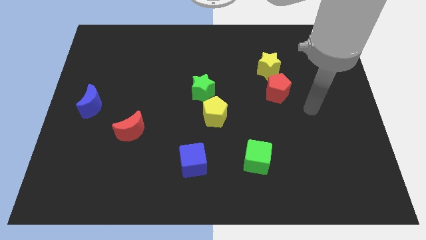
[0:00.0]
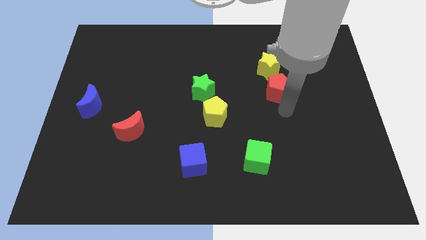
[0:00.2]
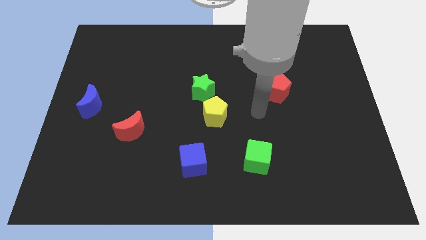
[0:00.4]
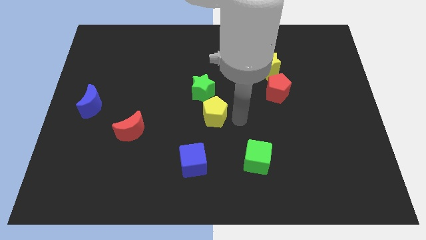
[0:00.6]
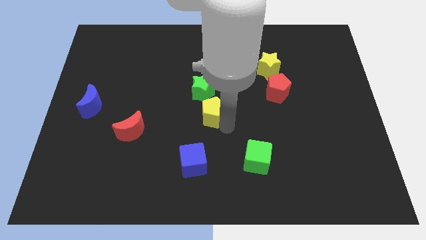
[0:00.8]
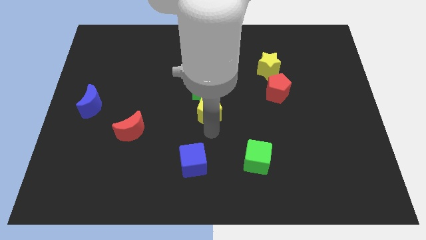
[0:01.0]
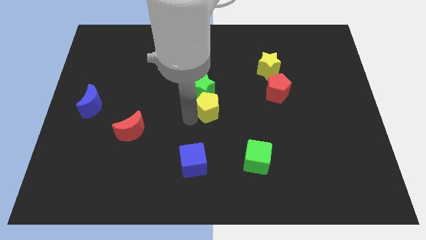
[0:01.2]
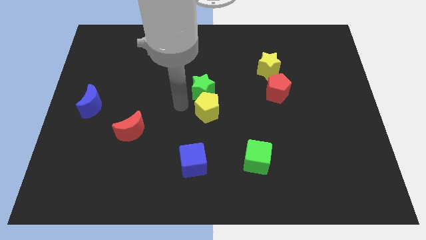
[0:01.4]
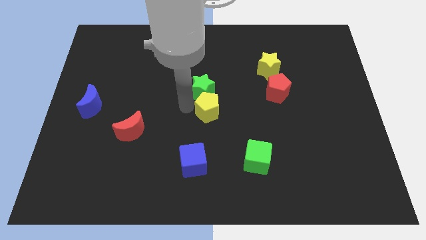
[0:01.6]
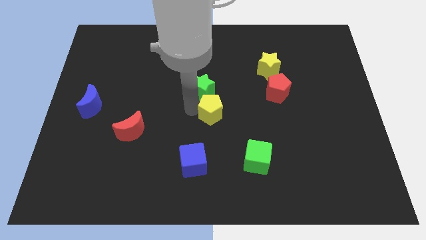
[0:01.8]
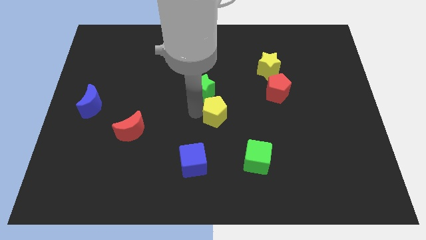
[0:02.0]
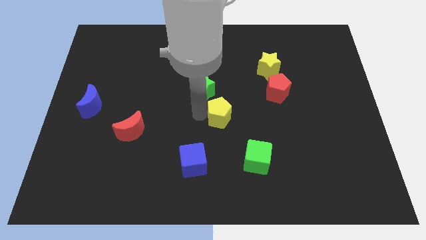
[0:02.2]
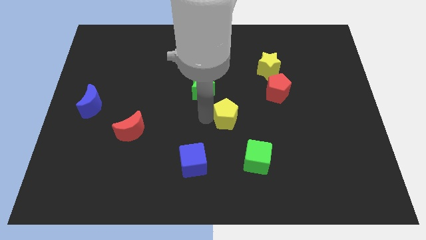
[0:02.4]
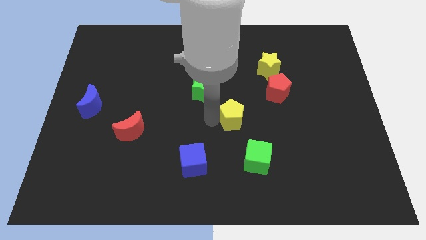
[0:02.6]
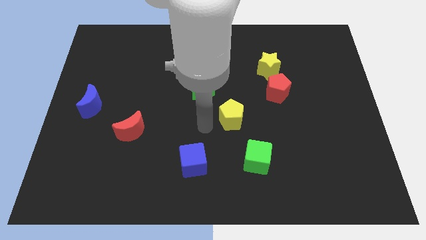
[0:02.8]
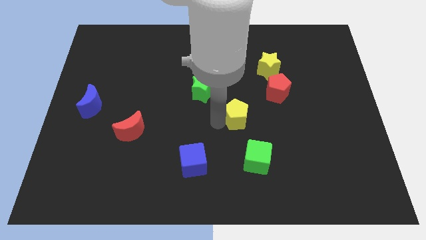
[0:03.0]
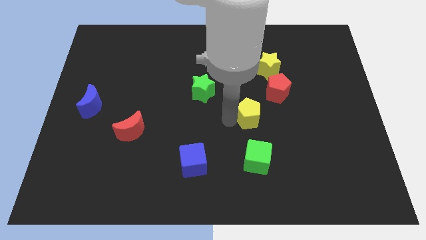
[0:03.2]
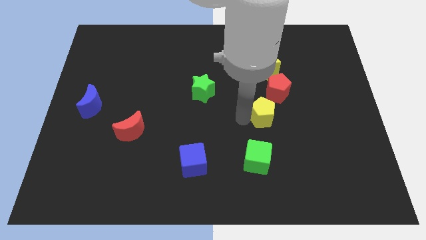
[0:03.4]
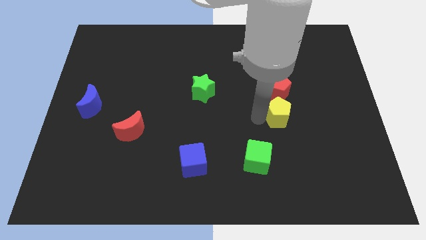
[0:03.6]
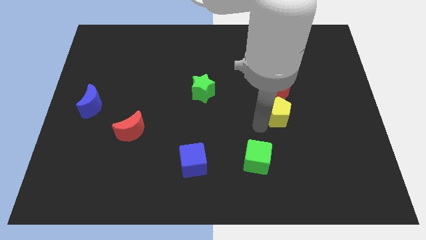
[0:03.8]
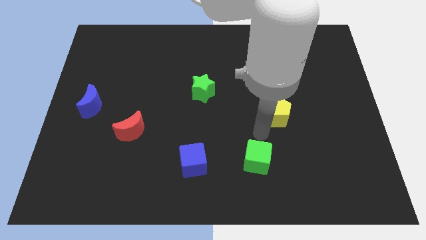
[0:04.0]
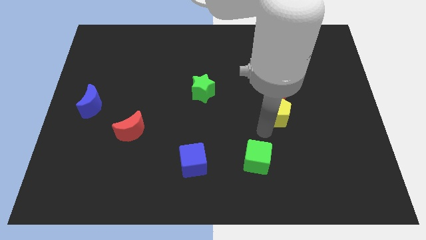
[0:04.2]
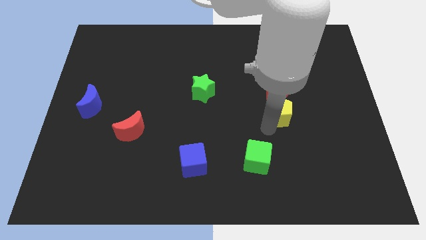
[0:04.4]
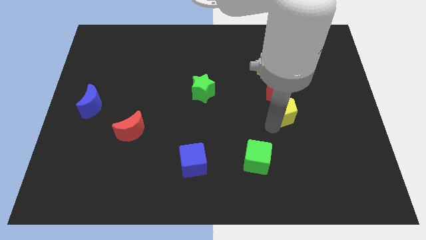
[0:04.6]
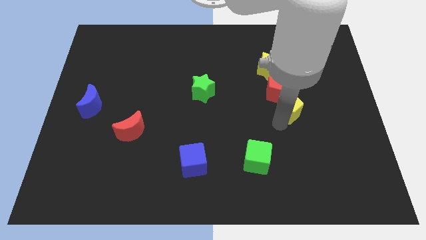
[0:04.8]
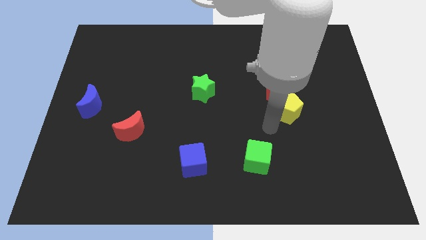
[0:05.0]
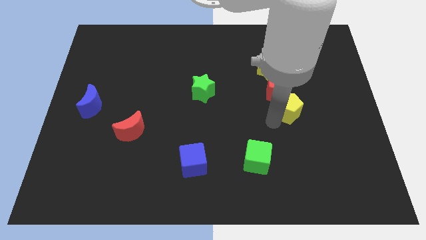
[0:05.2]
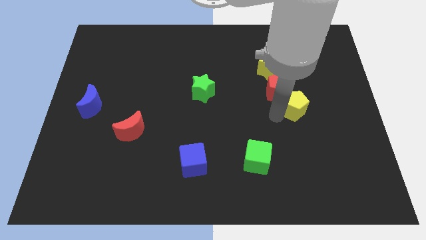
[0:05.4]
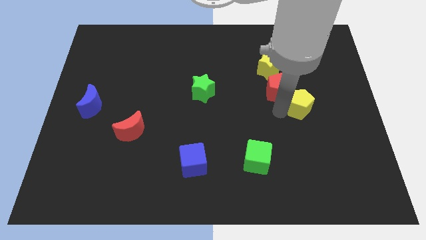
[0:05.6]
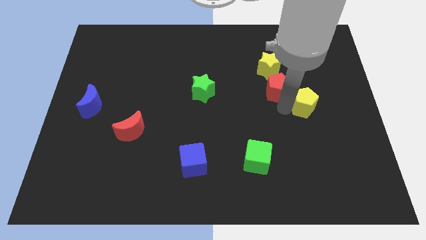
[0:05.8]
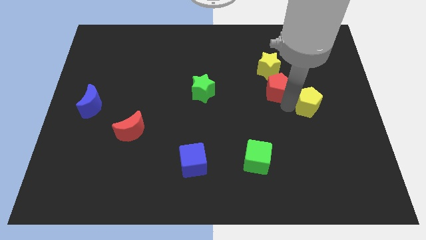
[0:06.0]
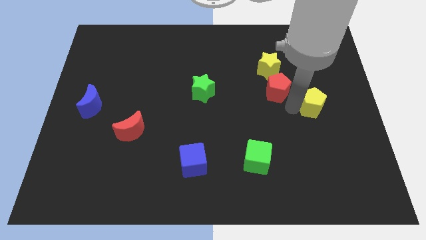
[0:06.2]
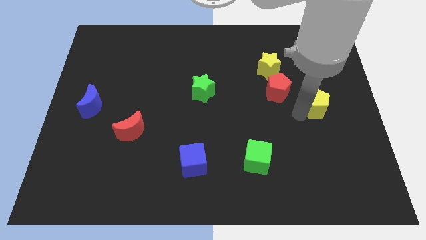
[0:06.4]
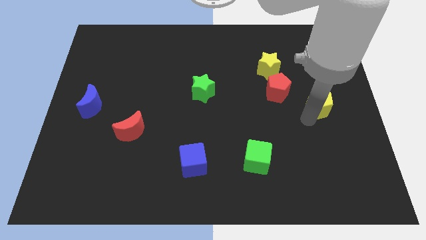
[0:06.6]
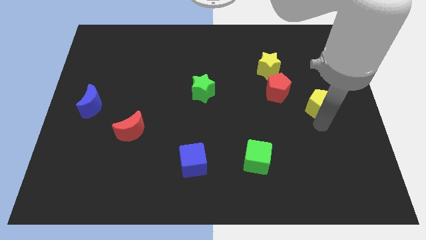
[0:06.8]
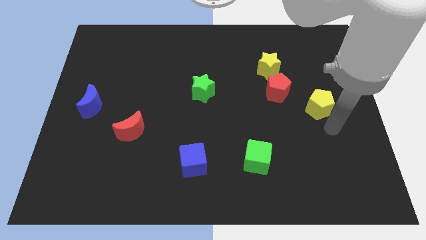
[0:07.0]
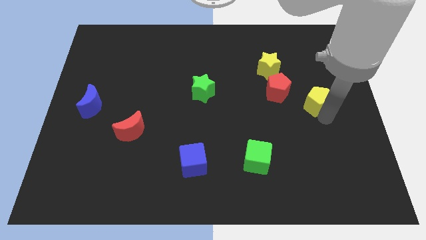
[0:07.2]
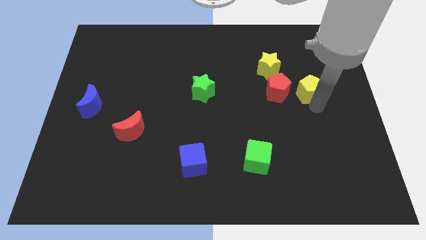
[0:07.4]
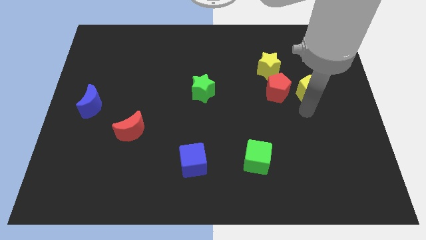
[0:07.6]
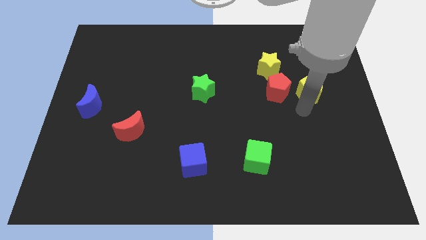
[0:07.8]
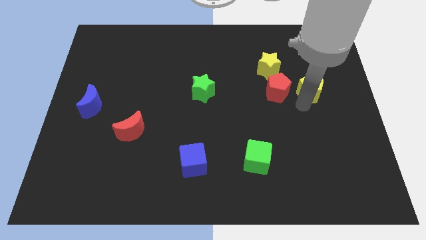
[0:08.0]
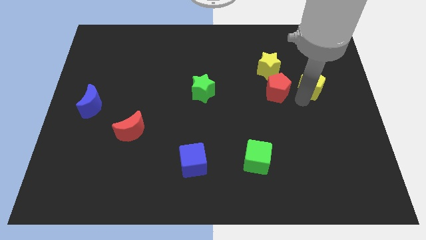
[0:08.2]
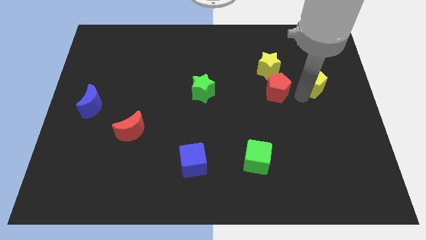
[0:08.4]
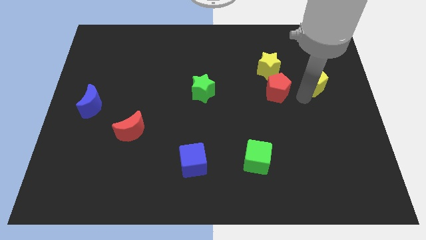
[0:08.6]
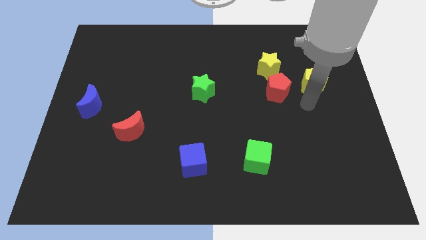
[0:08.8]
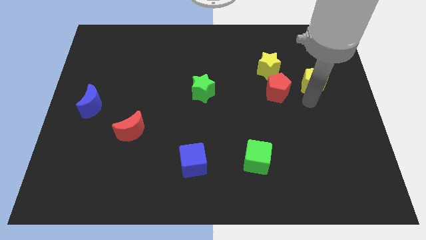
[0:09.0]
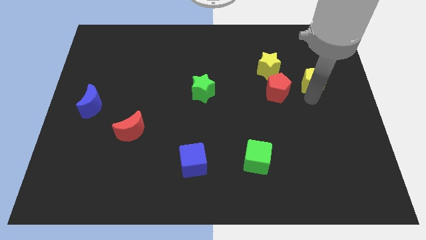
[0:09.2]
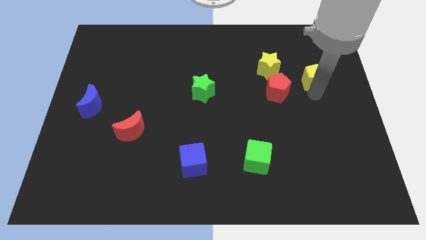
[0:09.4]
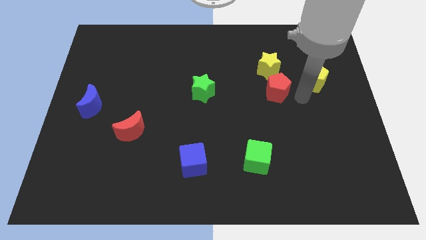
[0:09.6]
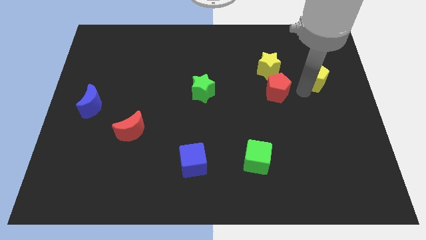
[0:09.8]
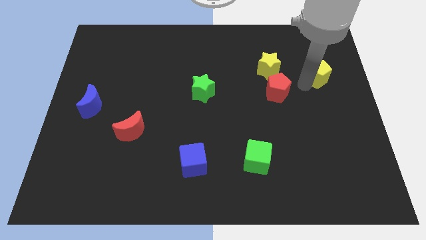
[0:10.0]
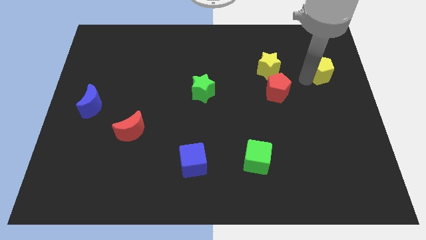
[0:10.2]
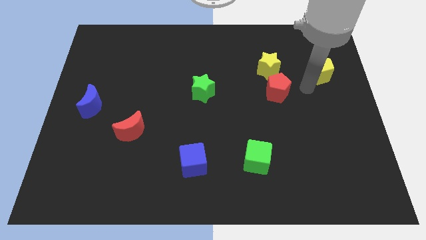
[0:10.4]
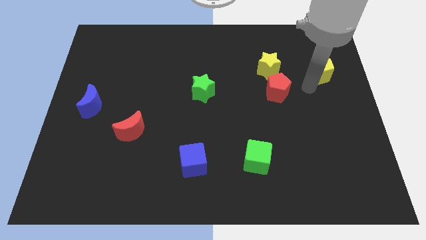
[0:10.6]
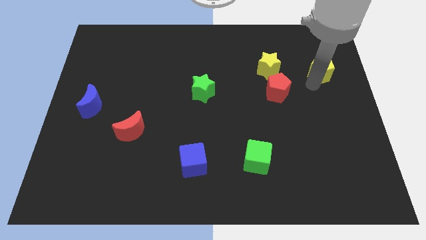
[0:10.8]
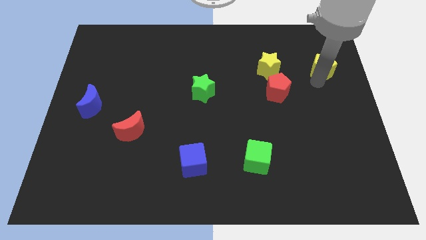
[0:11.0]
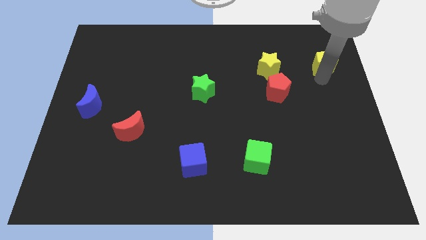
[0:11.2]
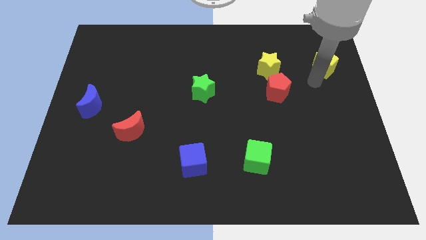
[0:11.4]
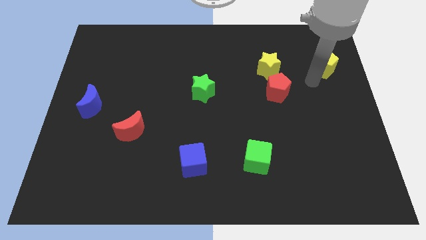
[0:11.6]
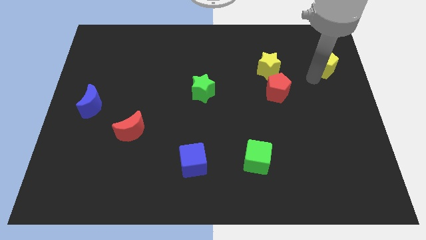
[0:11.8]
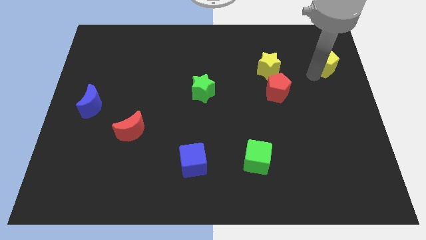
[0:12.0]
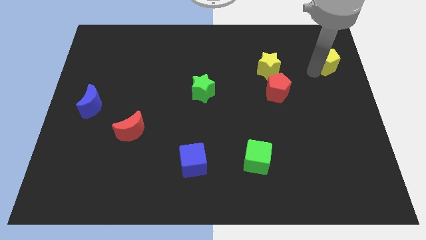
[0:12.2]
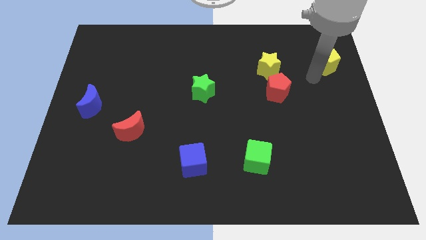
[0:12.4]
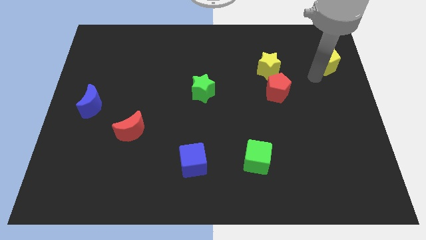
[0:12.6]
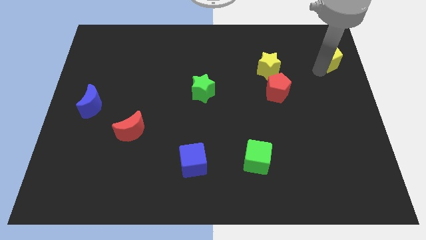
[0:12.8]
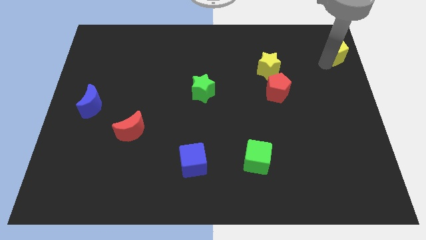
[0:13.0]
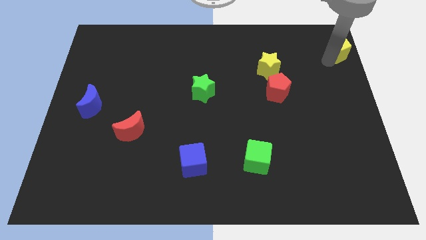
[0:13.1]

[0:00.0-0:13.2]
push the yellow pentagon to the upper right corner
